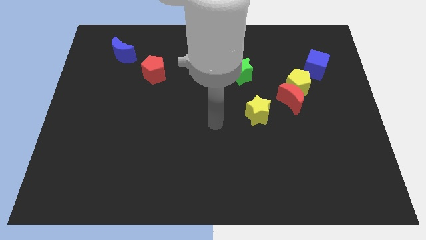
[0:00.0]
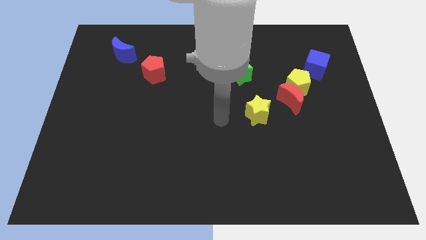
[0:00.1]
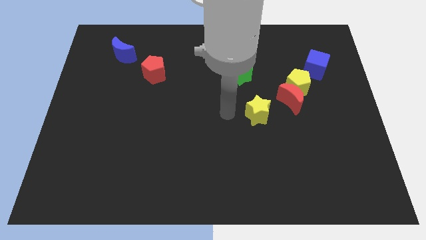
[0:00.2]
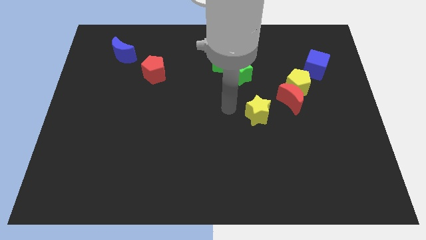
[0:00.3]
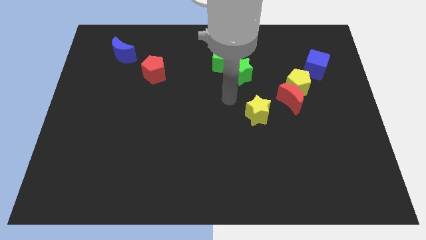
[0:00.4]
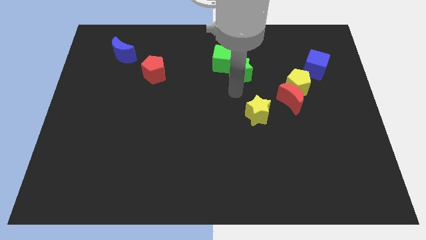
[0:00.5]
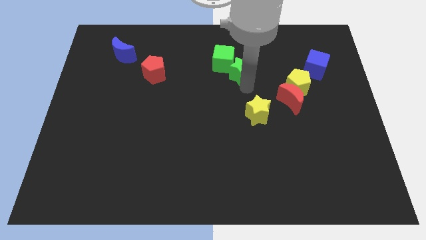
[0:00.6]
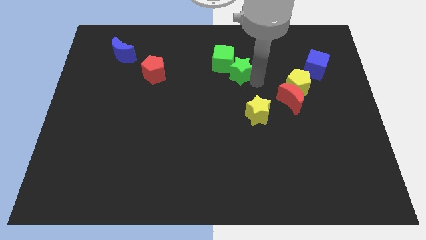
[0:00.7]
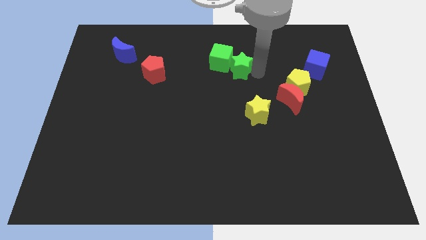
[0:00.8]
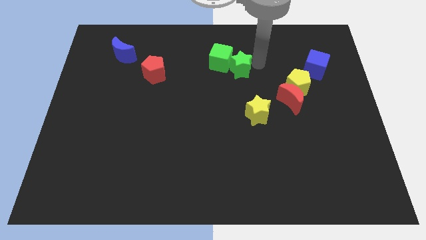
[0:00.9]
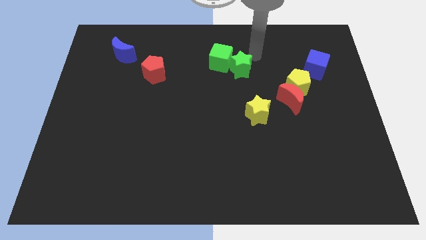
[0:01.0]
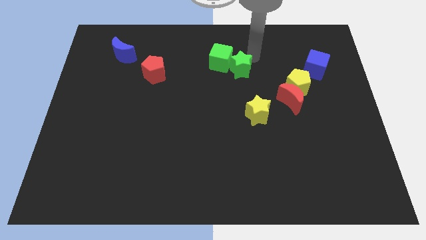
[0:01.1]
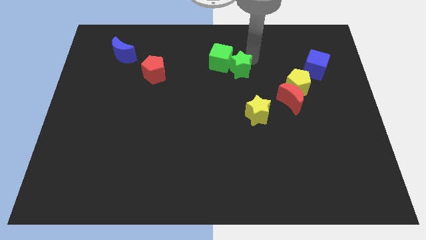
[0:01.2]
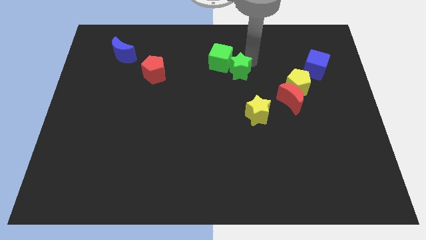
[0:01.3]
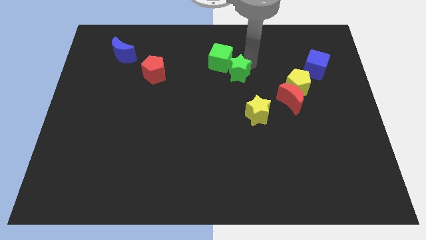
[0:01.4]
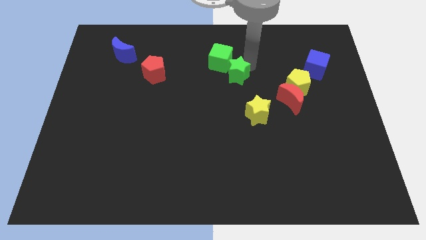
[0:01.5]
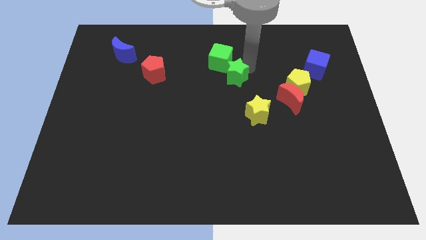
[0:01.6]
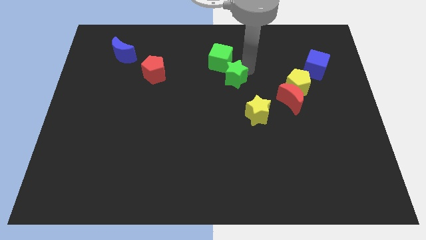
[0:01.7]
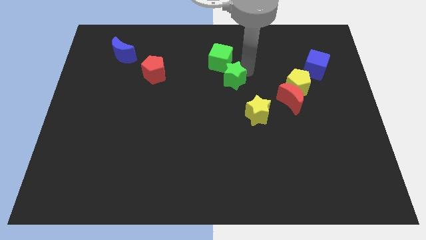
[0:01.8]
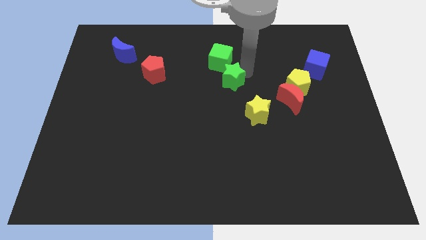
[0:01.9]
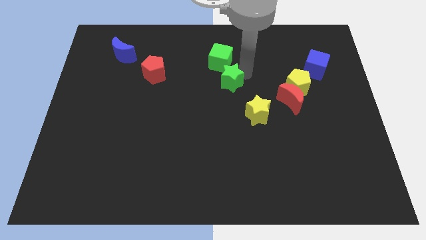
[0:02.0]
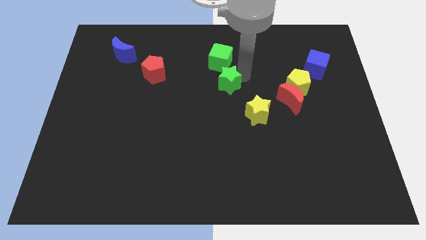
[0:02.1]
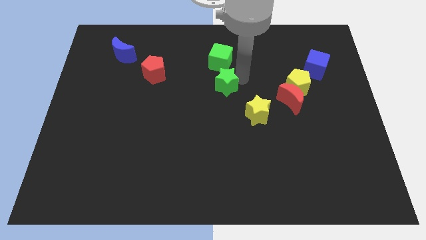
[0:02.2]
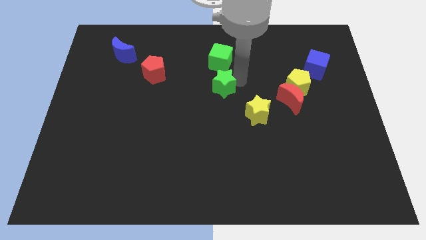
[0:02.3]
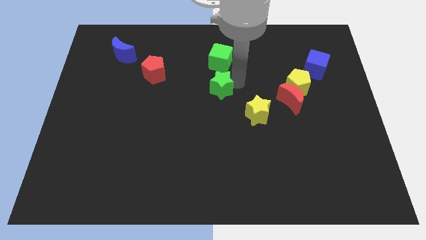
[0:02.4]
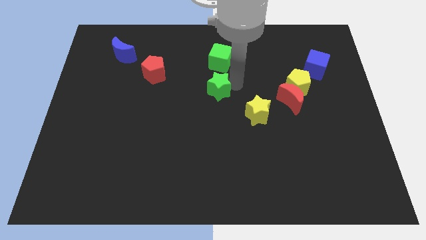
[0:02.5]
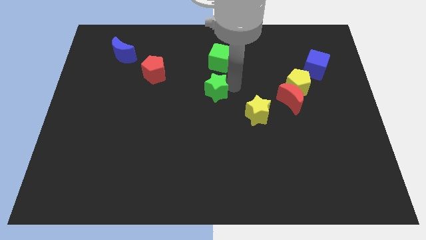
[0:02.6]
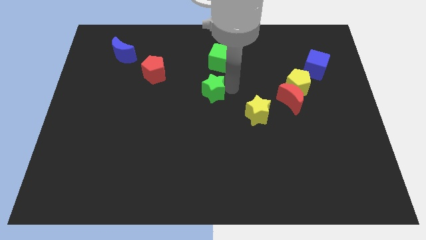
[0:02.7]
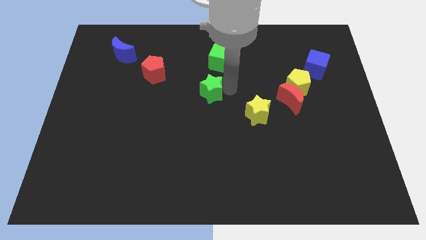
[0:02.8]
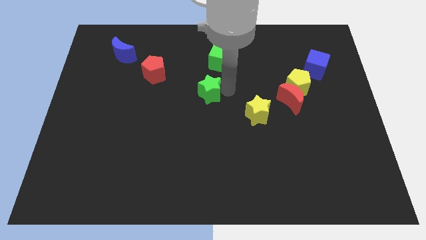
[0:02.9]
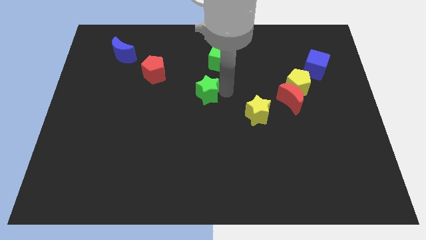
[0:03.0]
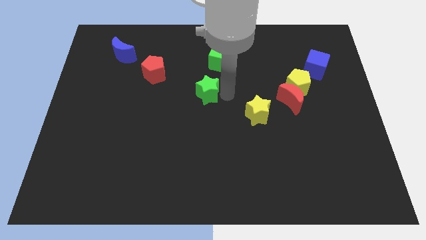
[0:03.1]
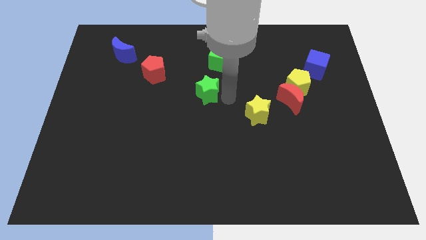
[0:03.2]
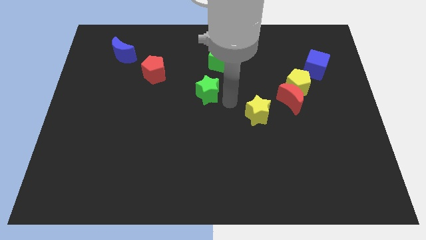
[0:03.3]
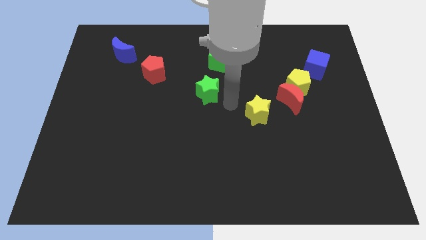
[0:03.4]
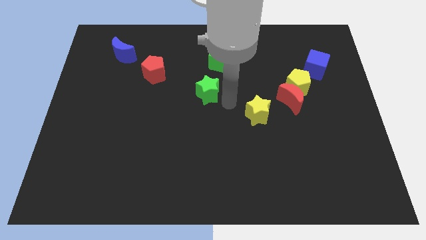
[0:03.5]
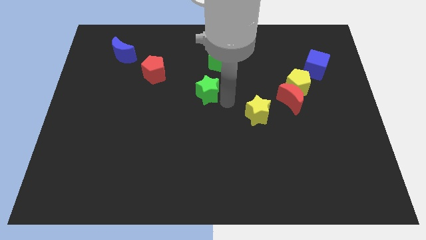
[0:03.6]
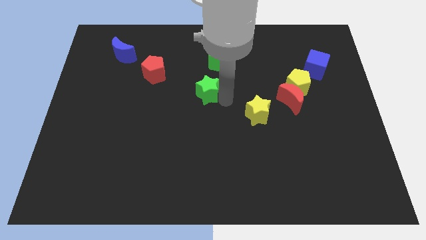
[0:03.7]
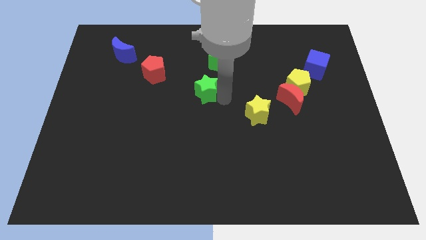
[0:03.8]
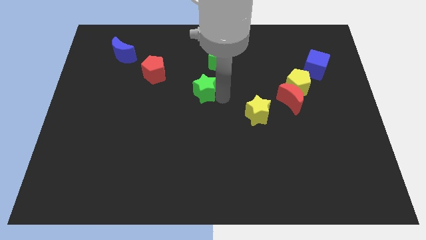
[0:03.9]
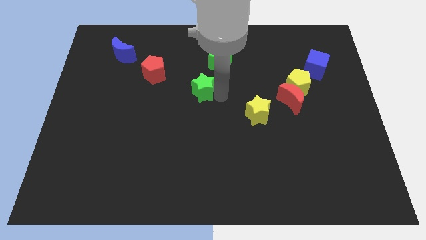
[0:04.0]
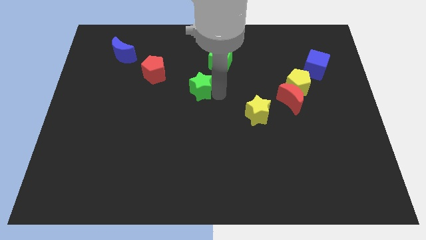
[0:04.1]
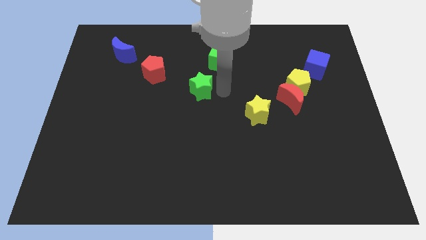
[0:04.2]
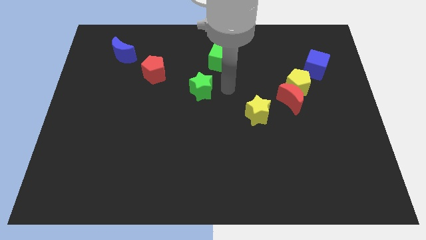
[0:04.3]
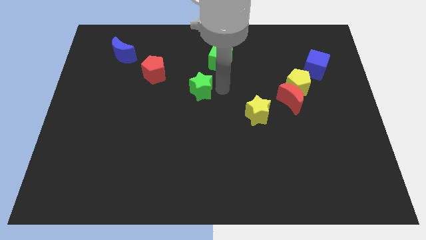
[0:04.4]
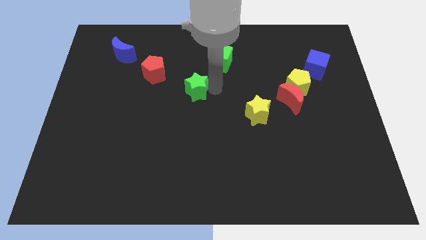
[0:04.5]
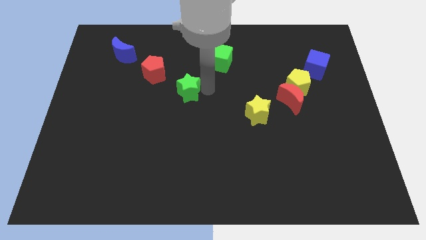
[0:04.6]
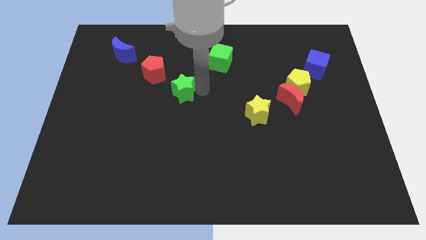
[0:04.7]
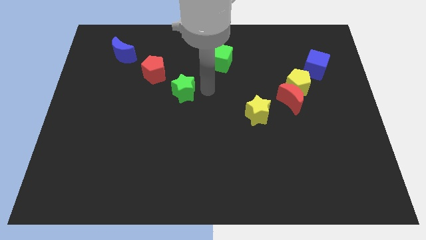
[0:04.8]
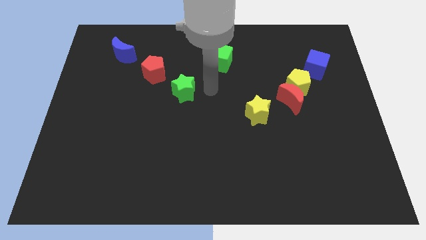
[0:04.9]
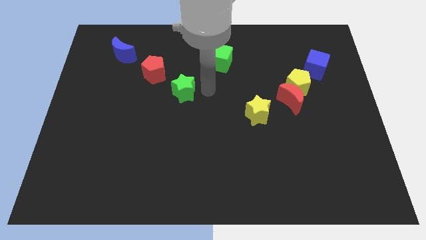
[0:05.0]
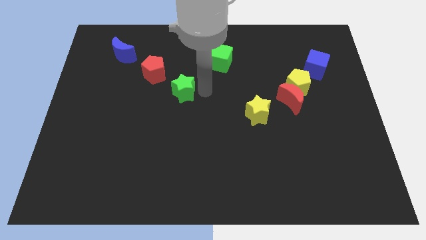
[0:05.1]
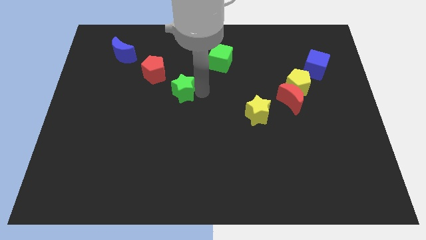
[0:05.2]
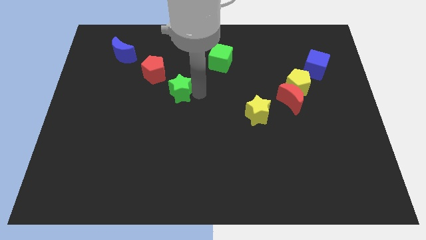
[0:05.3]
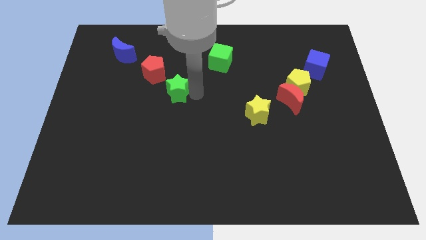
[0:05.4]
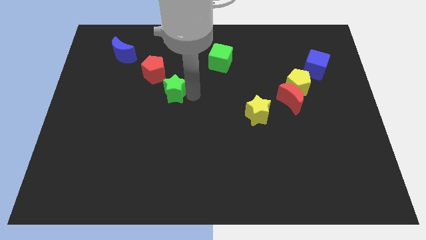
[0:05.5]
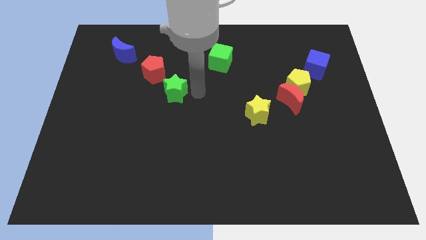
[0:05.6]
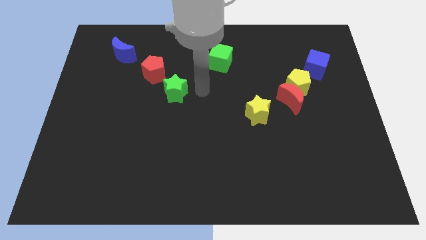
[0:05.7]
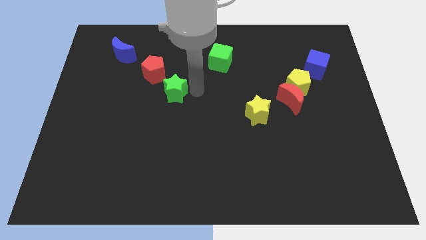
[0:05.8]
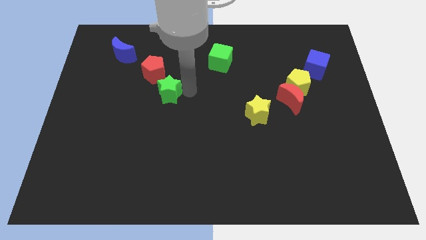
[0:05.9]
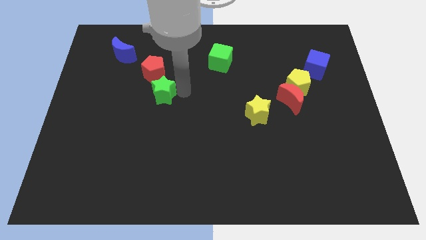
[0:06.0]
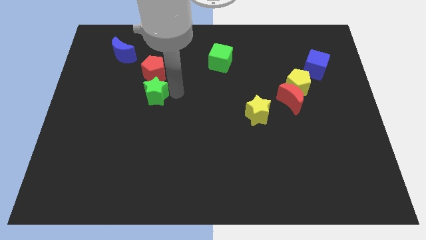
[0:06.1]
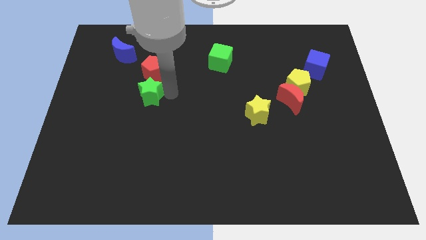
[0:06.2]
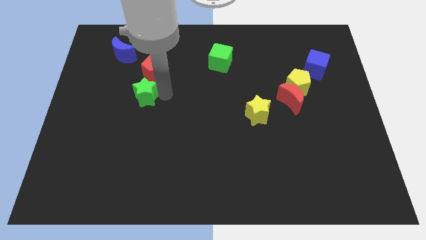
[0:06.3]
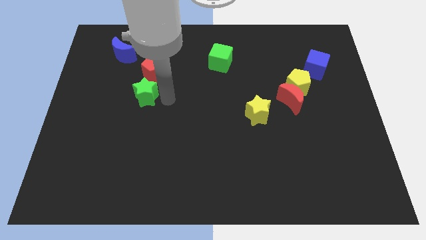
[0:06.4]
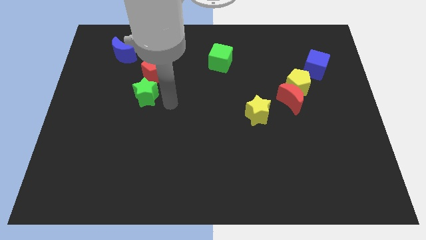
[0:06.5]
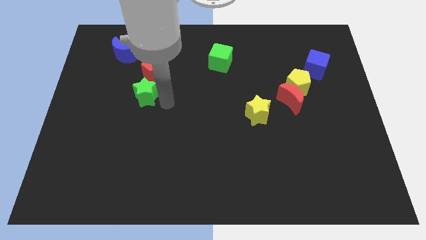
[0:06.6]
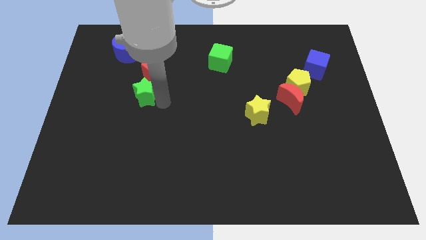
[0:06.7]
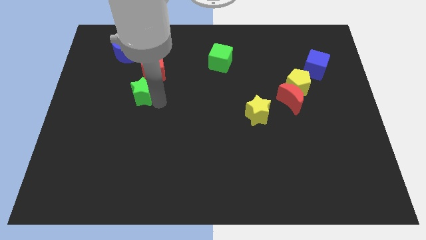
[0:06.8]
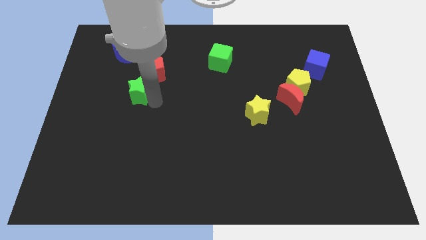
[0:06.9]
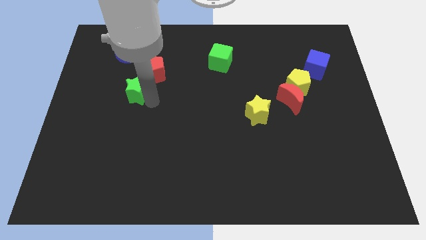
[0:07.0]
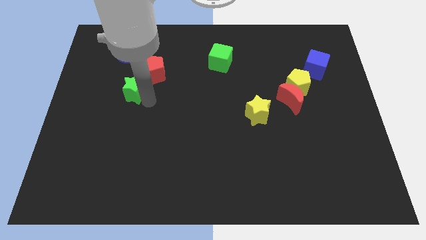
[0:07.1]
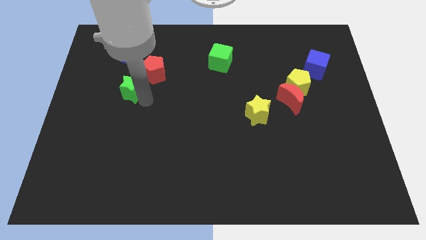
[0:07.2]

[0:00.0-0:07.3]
put the green star to the bottom side of the blue moon
